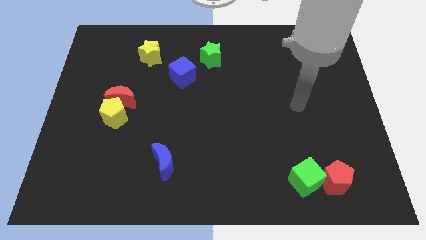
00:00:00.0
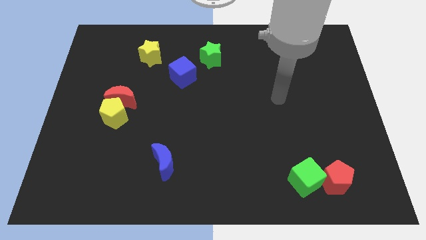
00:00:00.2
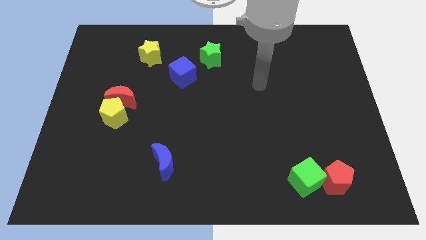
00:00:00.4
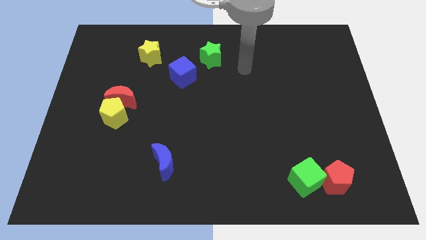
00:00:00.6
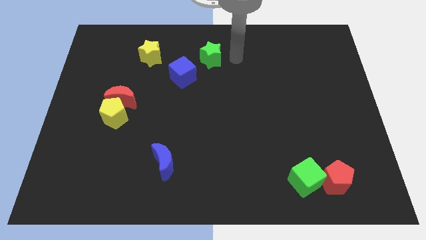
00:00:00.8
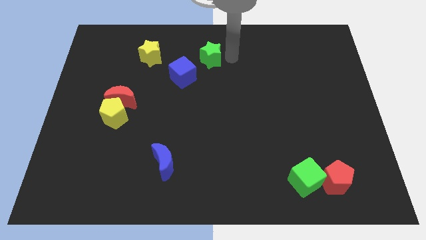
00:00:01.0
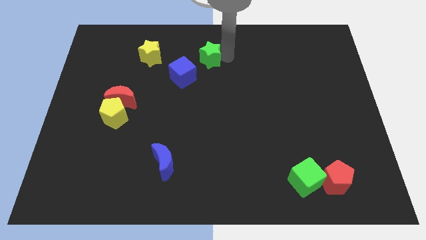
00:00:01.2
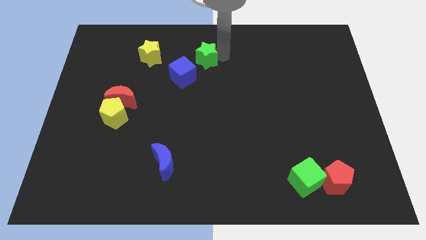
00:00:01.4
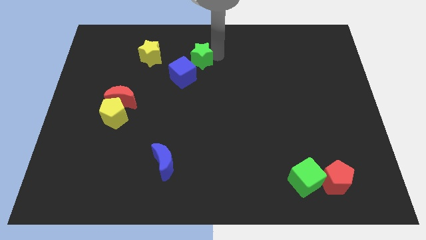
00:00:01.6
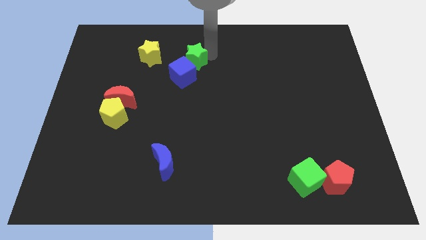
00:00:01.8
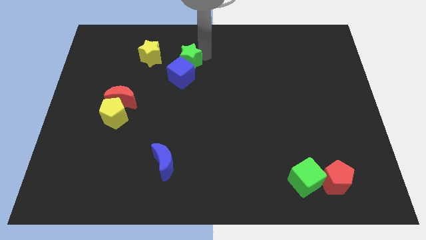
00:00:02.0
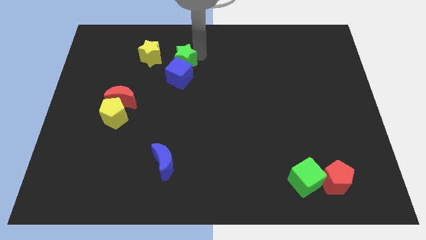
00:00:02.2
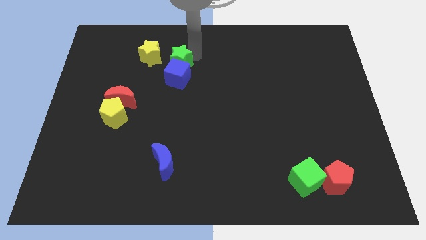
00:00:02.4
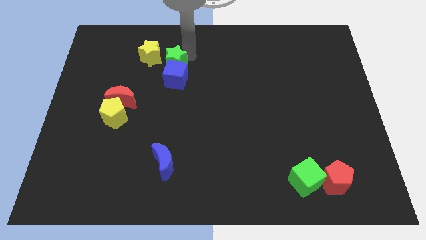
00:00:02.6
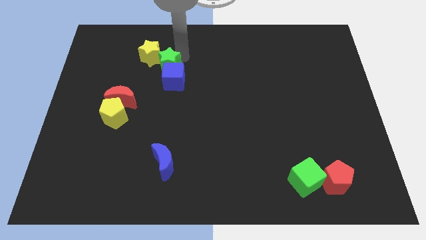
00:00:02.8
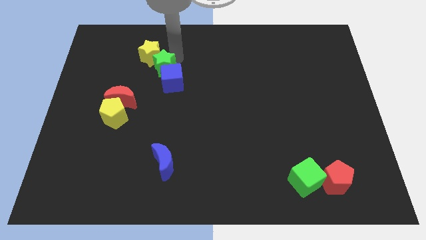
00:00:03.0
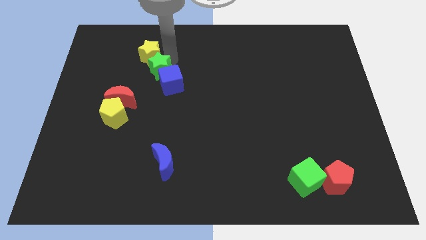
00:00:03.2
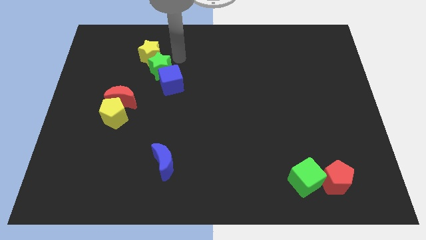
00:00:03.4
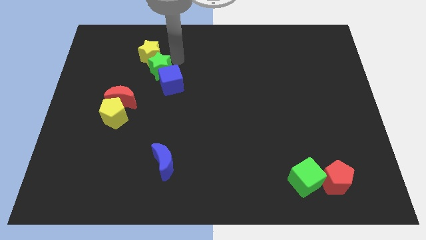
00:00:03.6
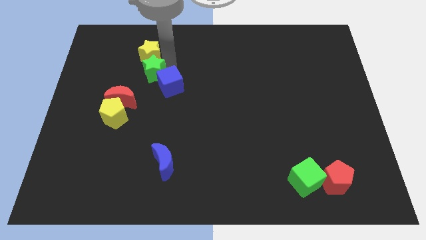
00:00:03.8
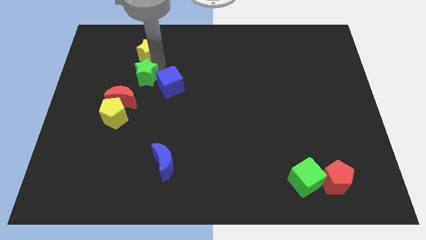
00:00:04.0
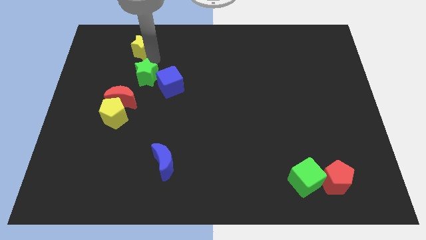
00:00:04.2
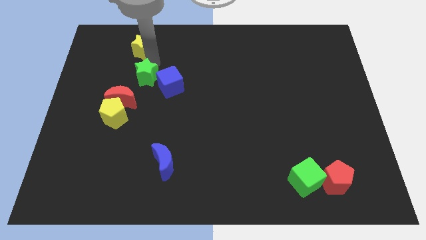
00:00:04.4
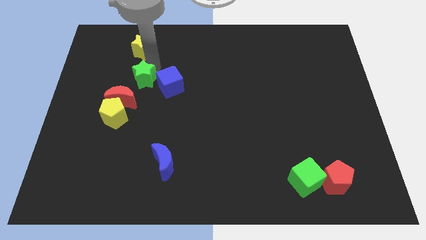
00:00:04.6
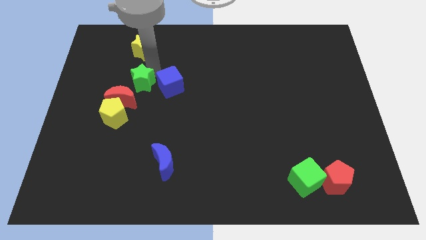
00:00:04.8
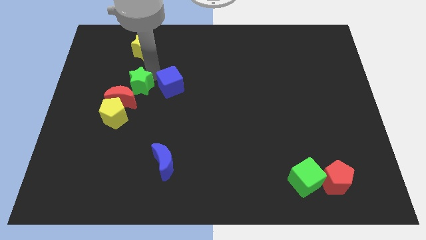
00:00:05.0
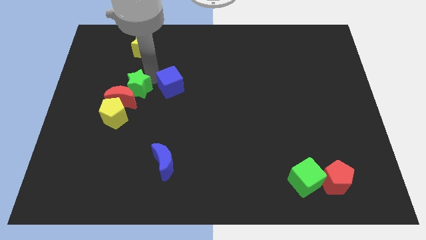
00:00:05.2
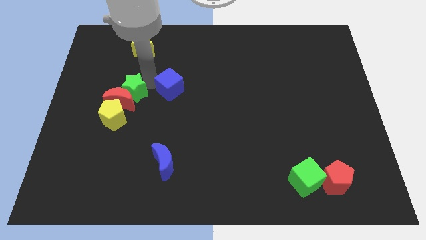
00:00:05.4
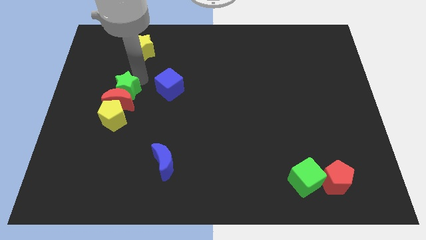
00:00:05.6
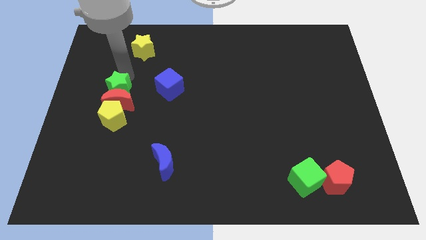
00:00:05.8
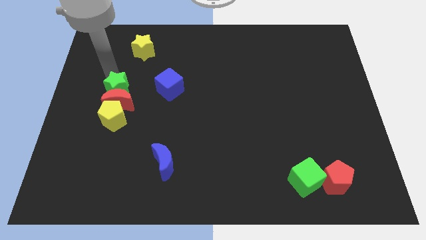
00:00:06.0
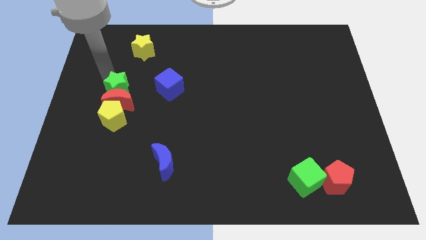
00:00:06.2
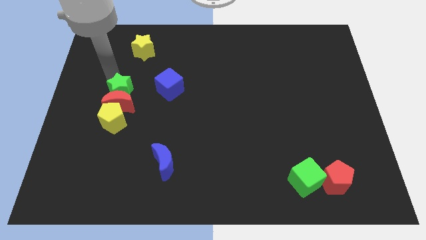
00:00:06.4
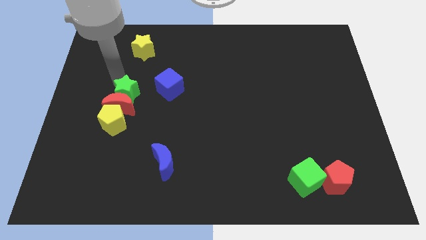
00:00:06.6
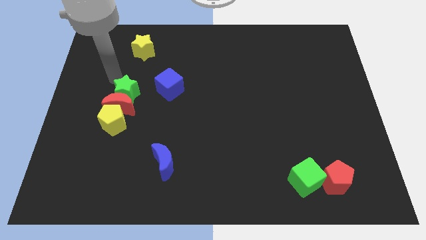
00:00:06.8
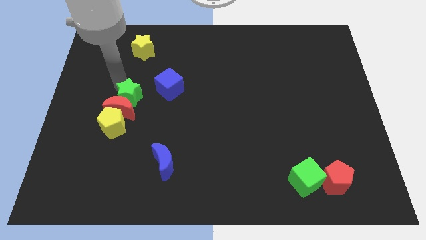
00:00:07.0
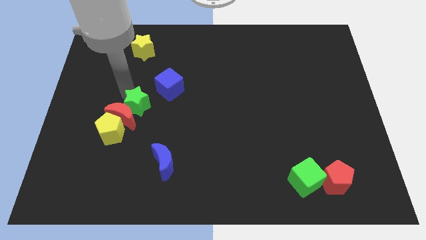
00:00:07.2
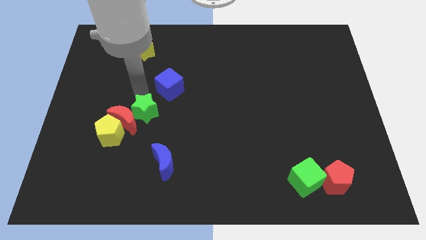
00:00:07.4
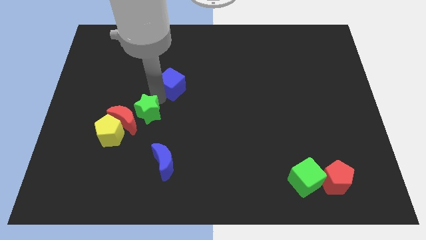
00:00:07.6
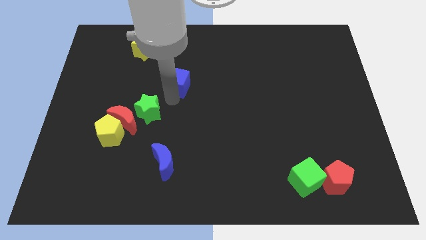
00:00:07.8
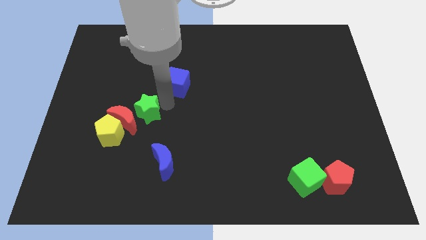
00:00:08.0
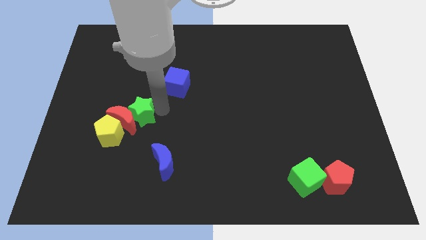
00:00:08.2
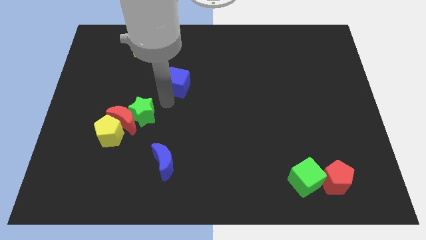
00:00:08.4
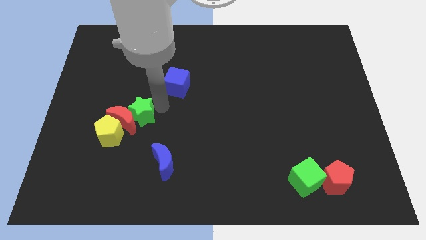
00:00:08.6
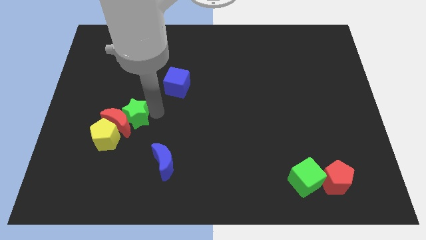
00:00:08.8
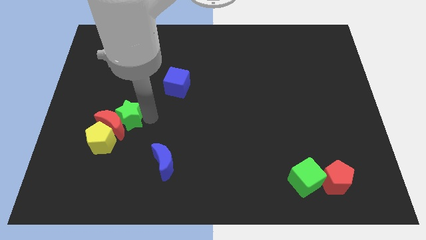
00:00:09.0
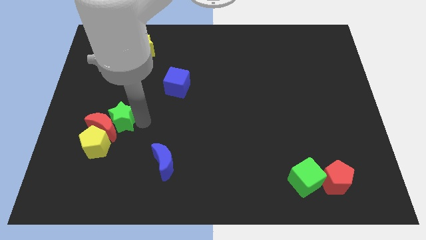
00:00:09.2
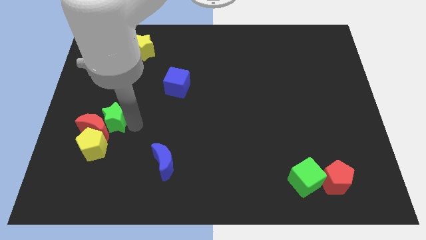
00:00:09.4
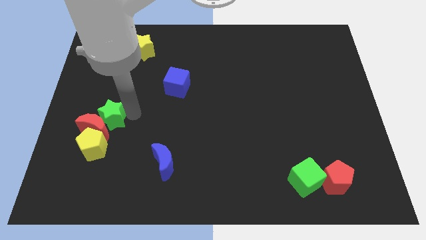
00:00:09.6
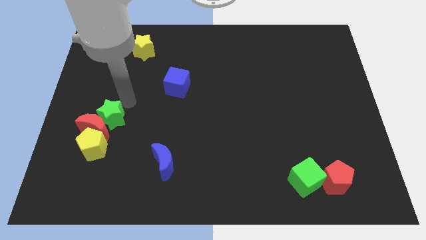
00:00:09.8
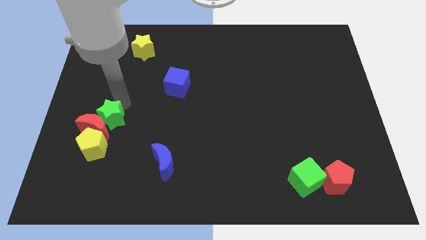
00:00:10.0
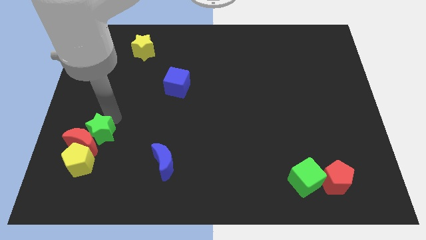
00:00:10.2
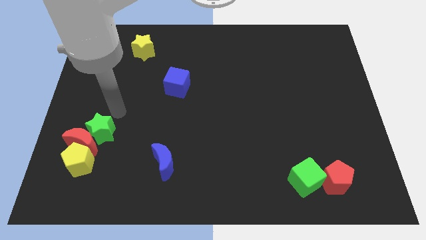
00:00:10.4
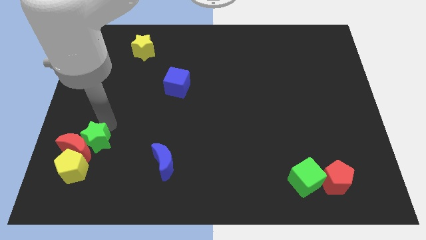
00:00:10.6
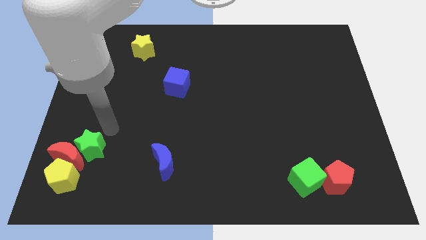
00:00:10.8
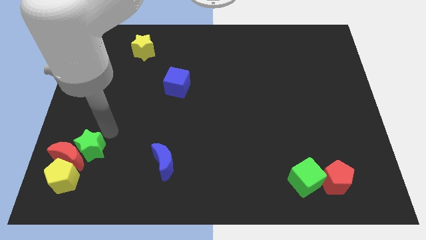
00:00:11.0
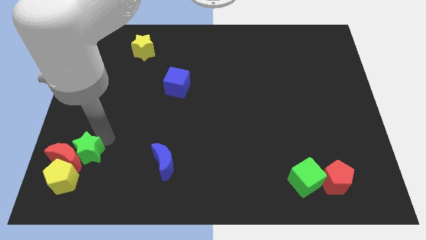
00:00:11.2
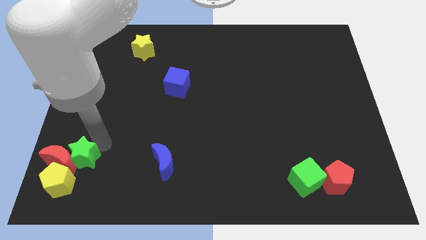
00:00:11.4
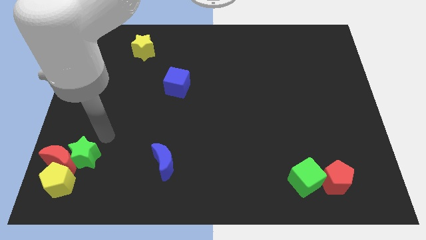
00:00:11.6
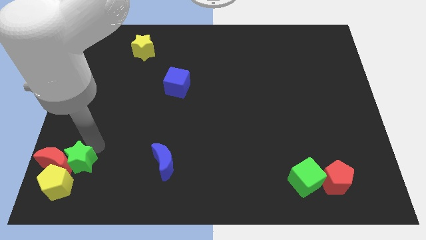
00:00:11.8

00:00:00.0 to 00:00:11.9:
put the green star close to the yellow pentagon

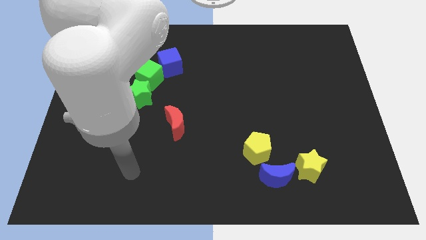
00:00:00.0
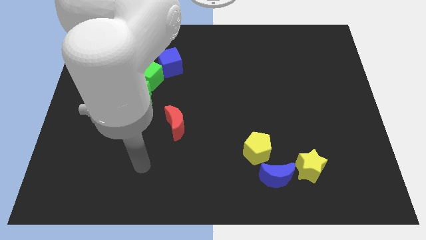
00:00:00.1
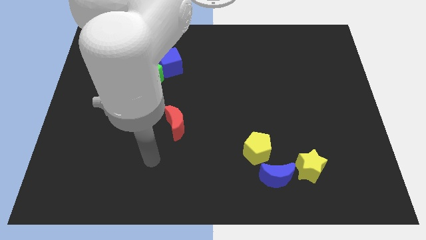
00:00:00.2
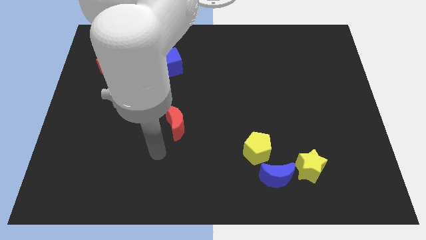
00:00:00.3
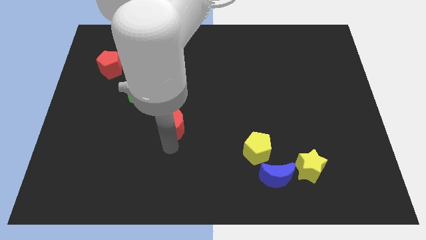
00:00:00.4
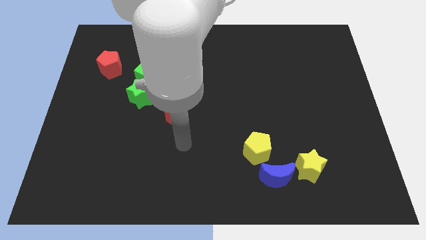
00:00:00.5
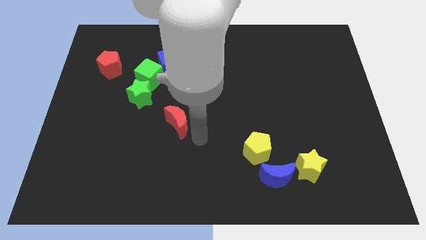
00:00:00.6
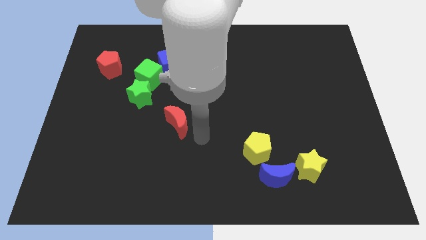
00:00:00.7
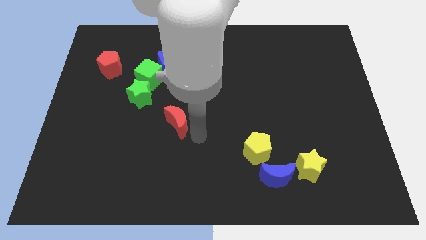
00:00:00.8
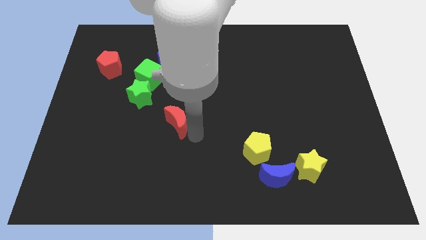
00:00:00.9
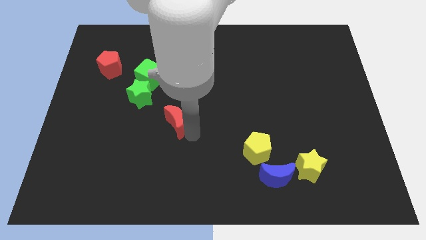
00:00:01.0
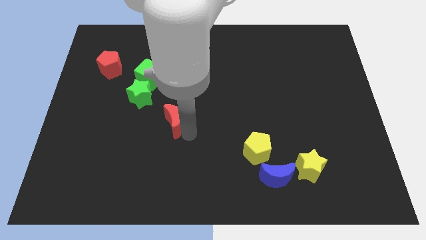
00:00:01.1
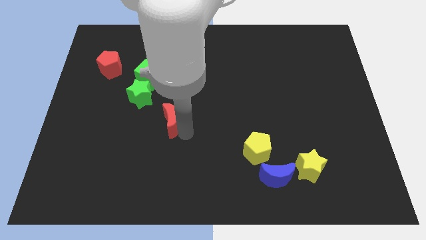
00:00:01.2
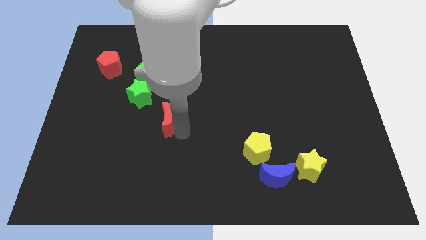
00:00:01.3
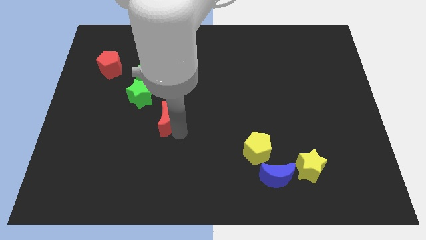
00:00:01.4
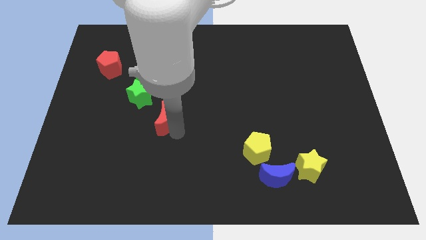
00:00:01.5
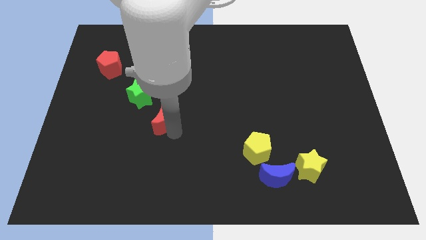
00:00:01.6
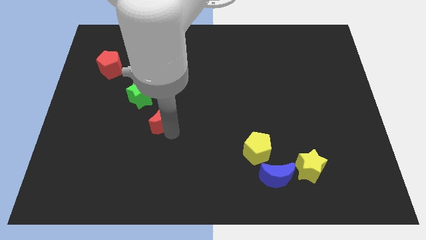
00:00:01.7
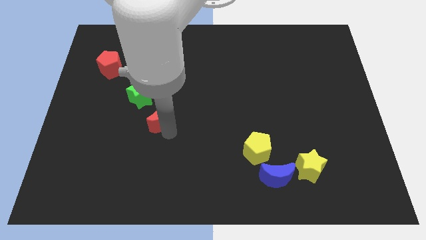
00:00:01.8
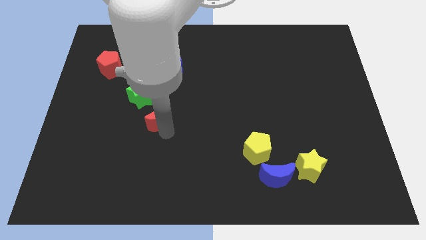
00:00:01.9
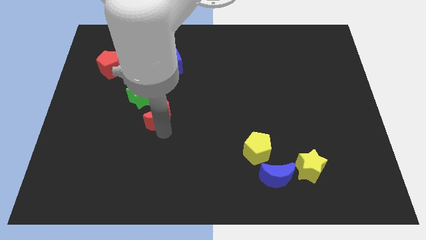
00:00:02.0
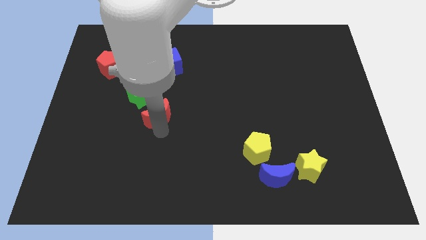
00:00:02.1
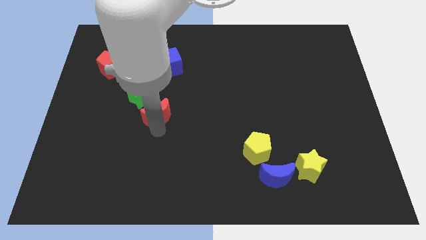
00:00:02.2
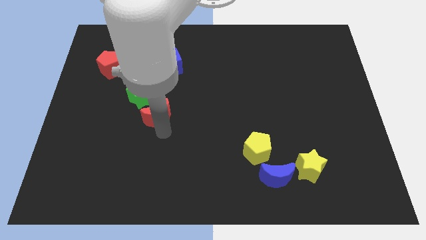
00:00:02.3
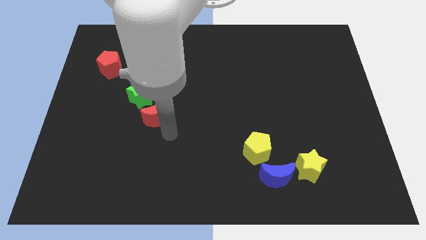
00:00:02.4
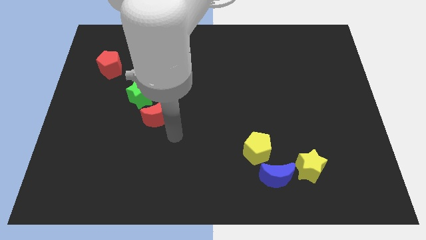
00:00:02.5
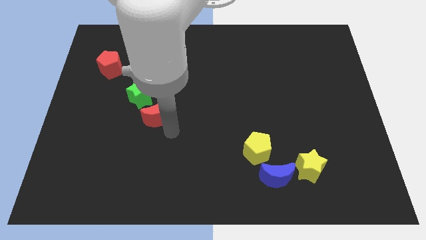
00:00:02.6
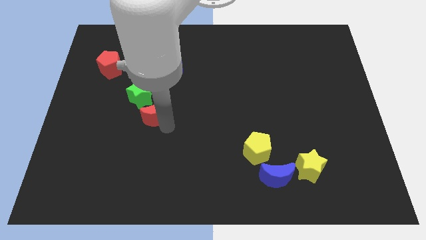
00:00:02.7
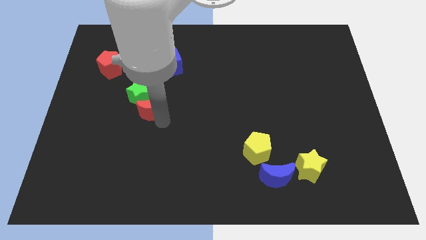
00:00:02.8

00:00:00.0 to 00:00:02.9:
push the red moon towards the green star
